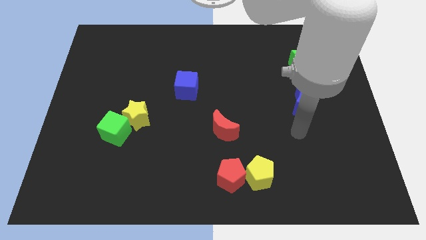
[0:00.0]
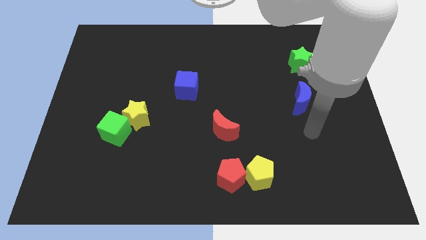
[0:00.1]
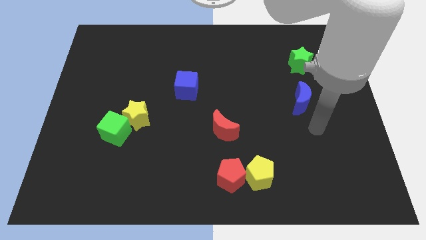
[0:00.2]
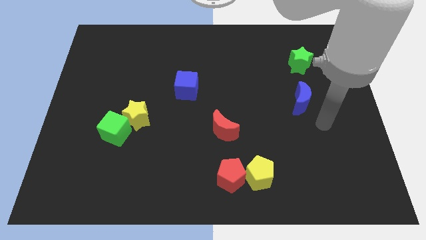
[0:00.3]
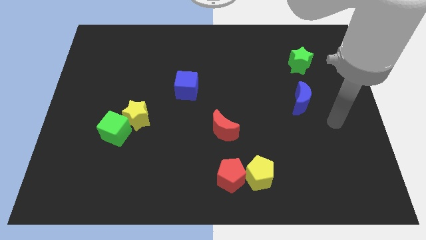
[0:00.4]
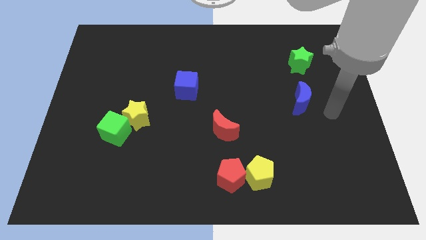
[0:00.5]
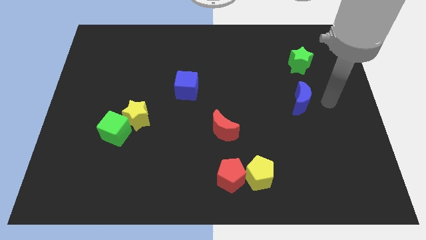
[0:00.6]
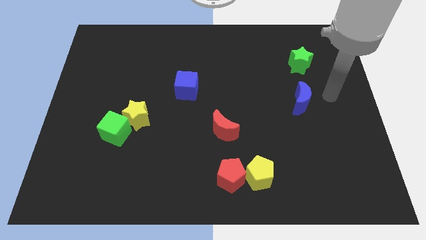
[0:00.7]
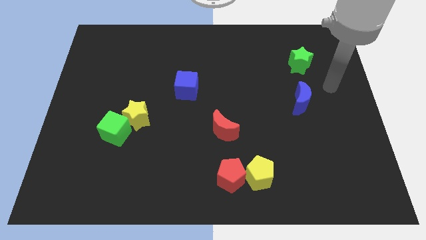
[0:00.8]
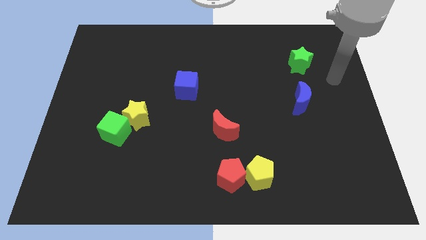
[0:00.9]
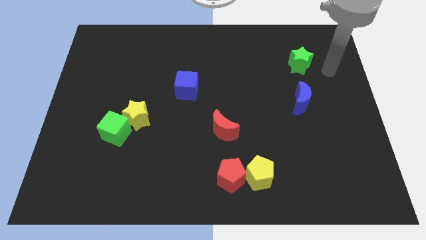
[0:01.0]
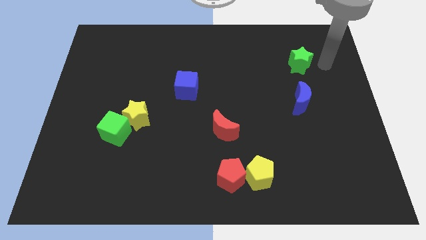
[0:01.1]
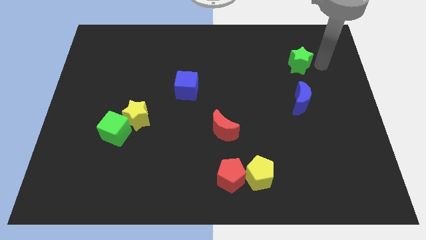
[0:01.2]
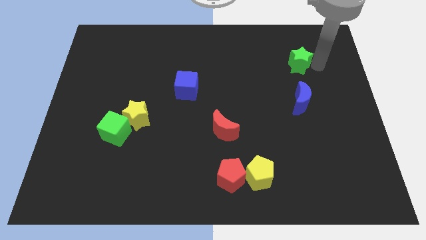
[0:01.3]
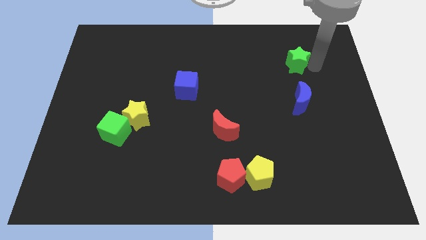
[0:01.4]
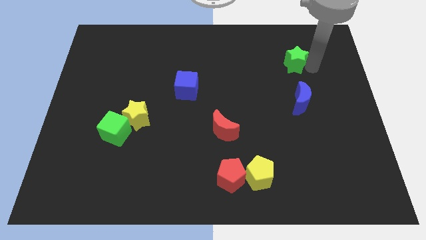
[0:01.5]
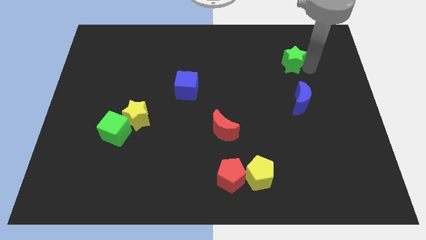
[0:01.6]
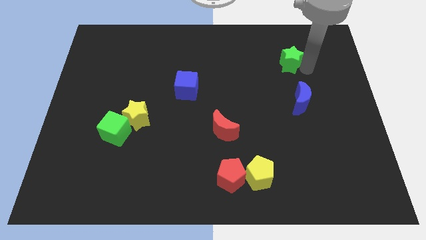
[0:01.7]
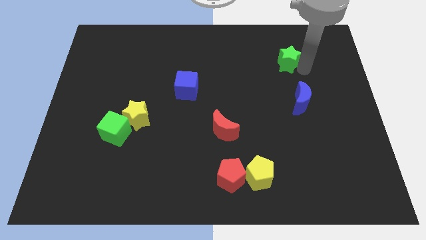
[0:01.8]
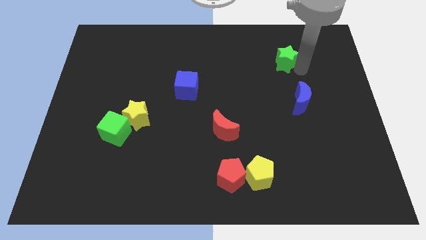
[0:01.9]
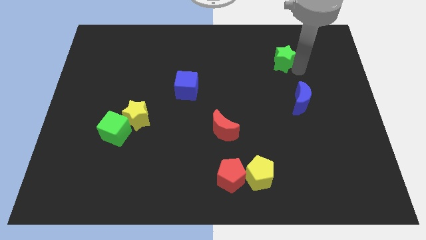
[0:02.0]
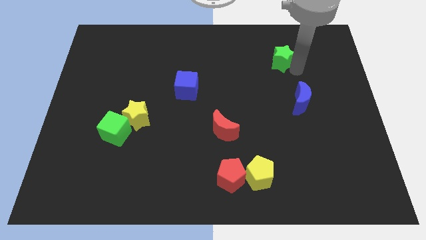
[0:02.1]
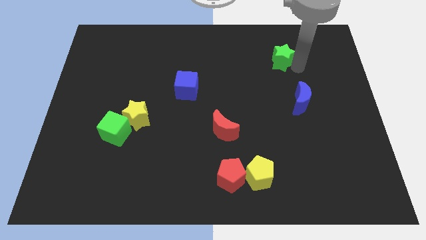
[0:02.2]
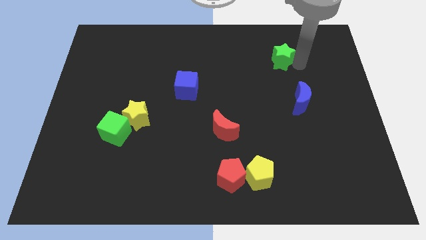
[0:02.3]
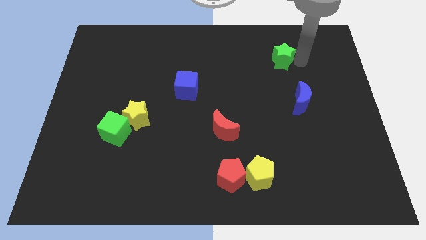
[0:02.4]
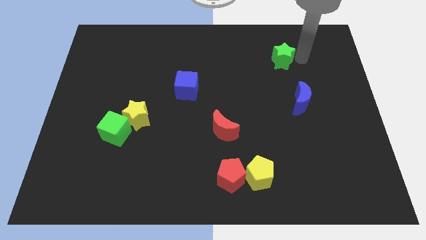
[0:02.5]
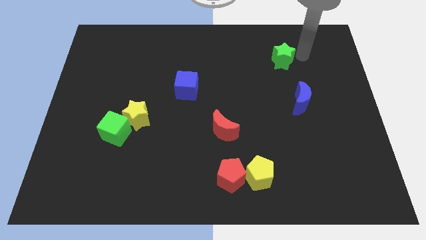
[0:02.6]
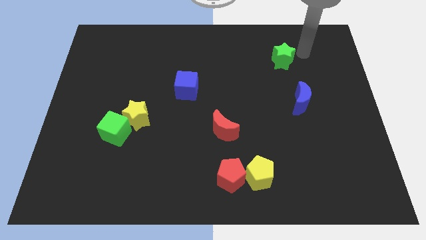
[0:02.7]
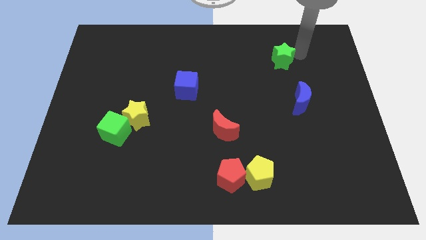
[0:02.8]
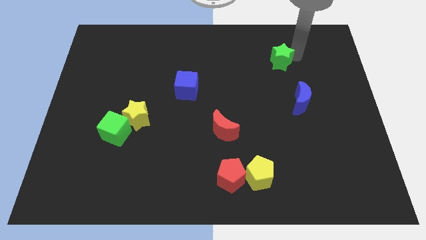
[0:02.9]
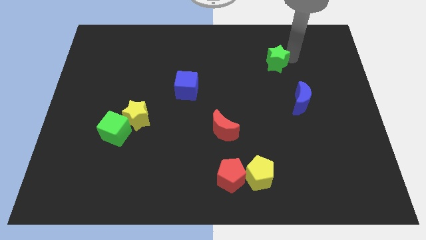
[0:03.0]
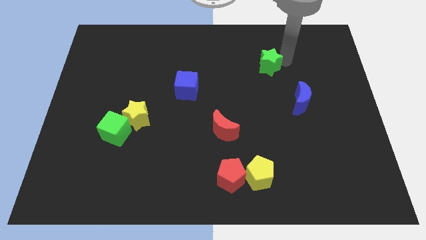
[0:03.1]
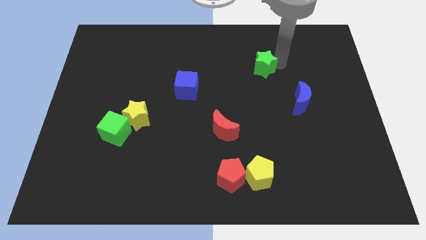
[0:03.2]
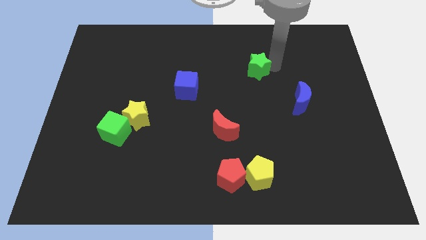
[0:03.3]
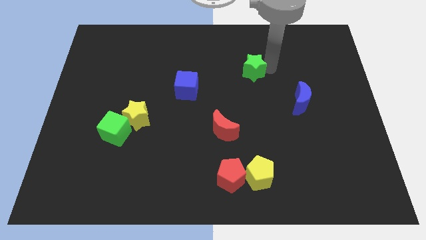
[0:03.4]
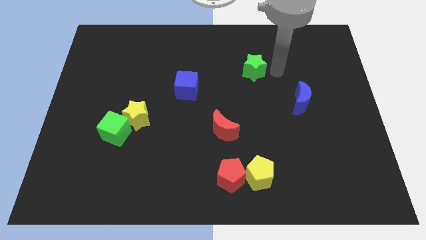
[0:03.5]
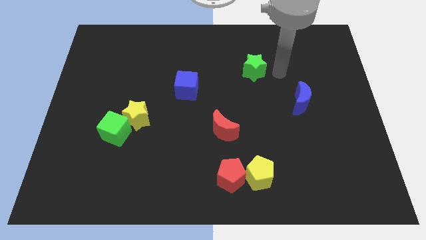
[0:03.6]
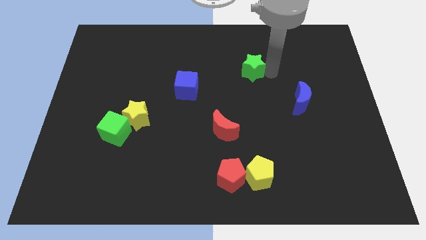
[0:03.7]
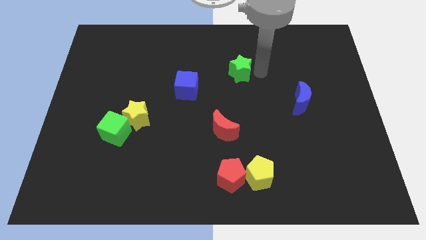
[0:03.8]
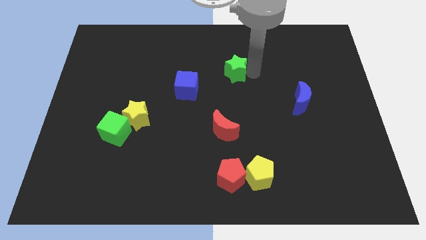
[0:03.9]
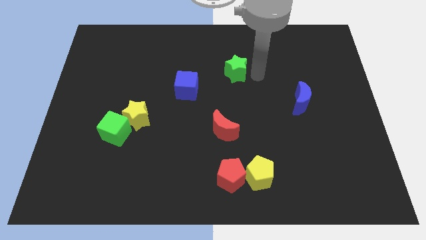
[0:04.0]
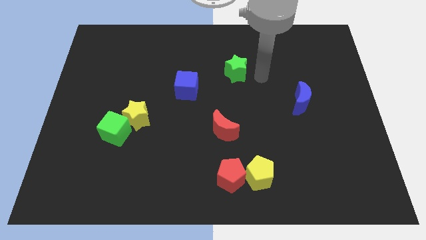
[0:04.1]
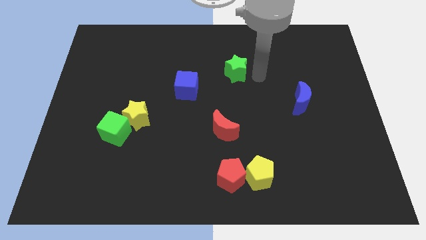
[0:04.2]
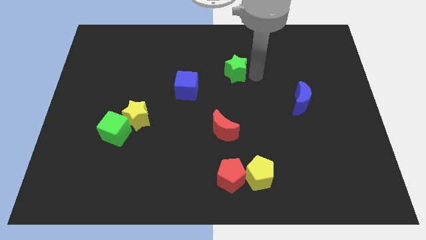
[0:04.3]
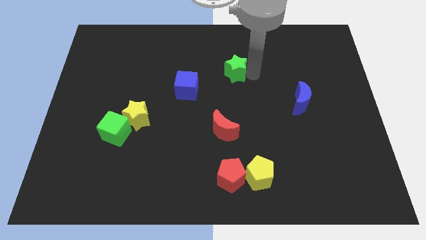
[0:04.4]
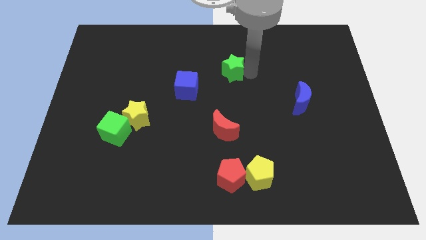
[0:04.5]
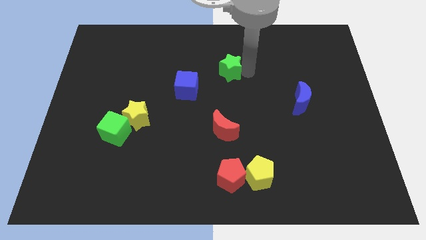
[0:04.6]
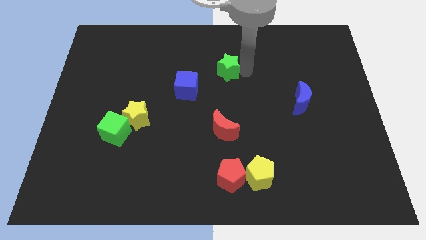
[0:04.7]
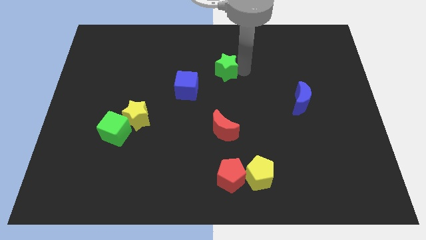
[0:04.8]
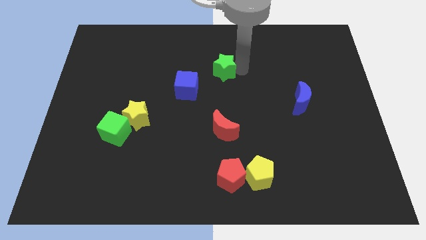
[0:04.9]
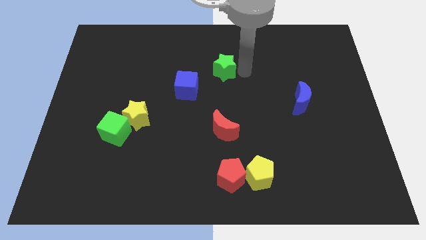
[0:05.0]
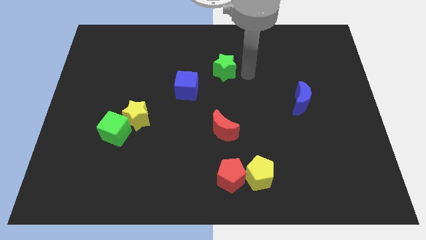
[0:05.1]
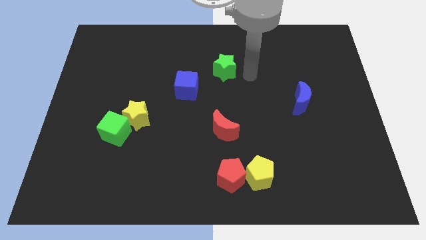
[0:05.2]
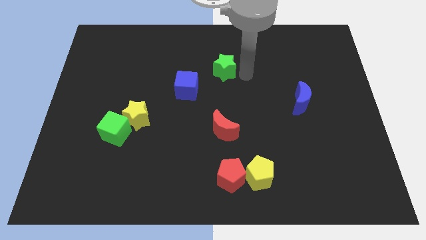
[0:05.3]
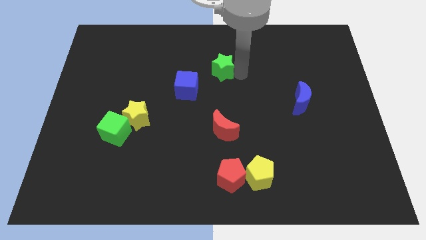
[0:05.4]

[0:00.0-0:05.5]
slide the green star left

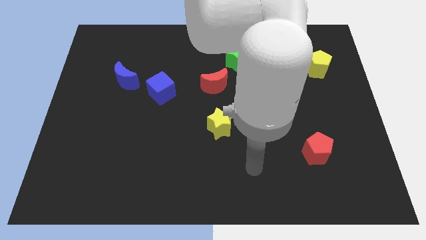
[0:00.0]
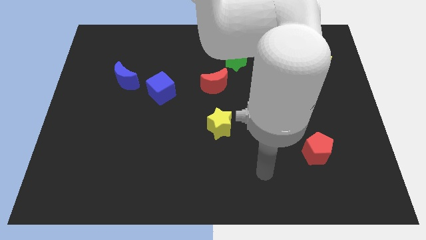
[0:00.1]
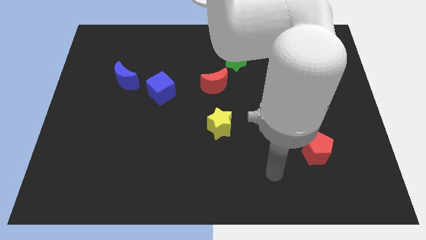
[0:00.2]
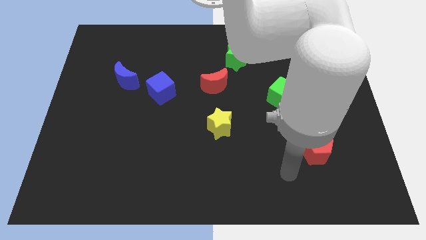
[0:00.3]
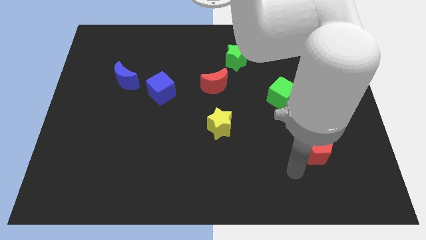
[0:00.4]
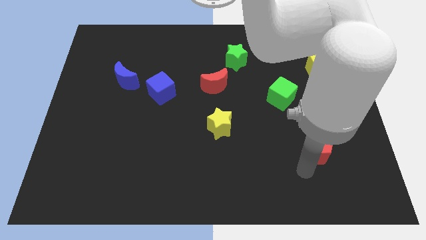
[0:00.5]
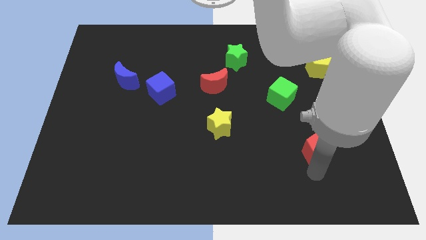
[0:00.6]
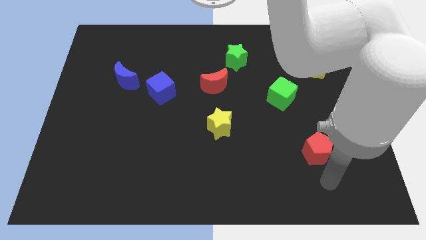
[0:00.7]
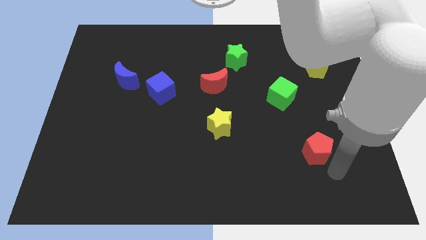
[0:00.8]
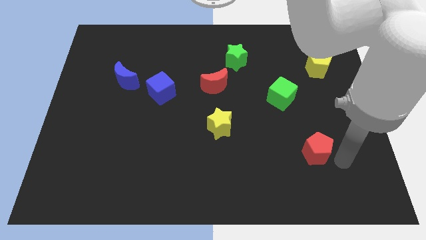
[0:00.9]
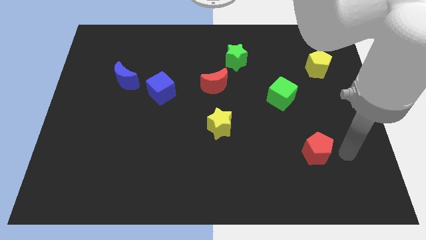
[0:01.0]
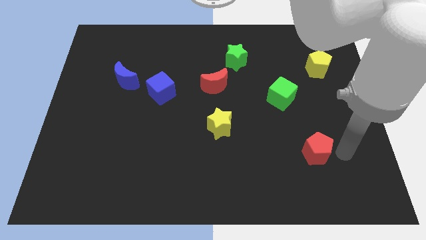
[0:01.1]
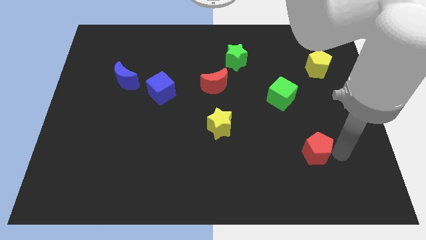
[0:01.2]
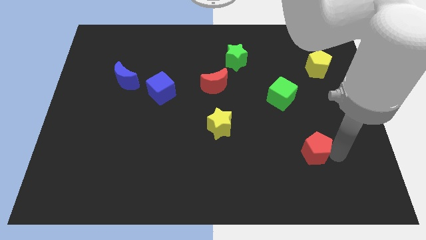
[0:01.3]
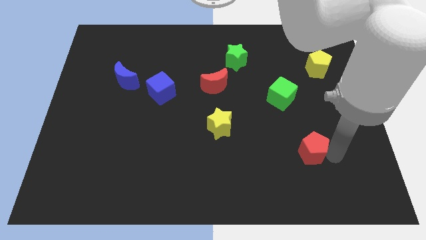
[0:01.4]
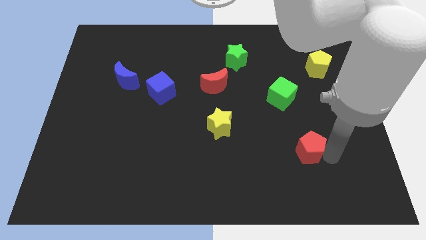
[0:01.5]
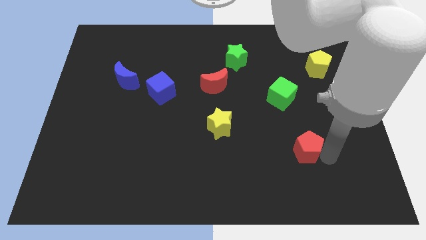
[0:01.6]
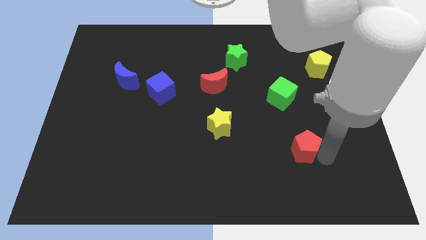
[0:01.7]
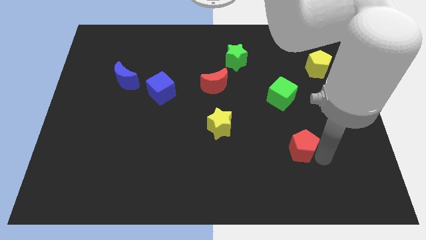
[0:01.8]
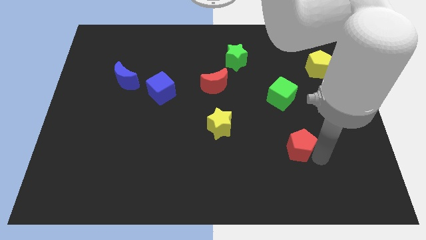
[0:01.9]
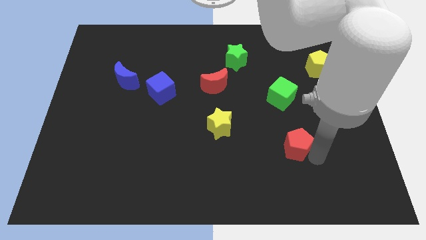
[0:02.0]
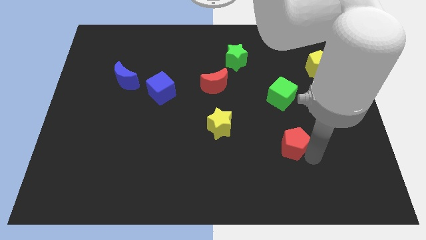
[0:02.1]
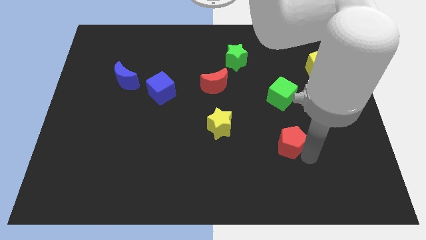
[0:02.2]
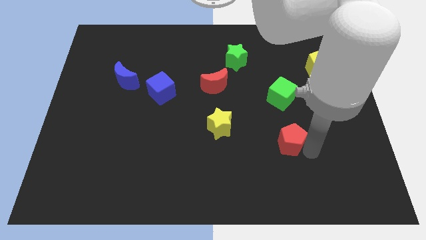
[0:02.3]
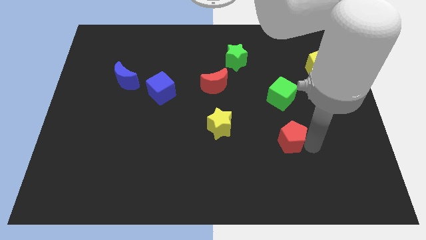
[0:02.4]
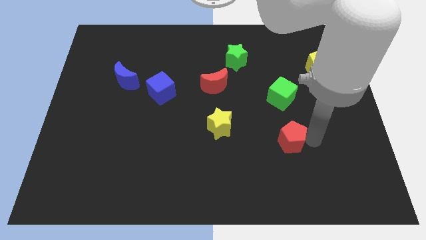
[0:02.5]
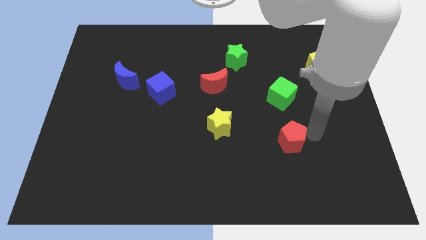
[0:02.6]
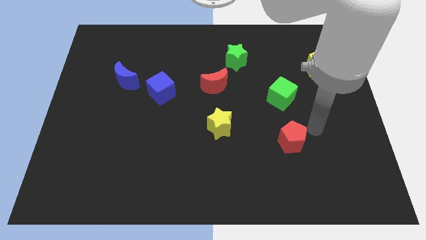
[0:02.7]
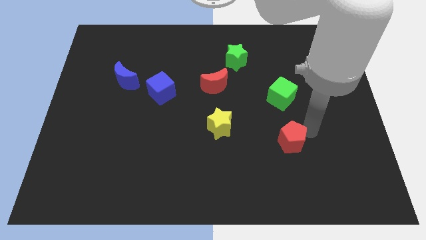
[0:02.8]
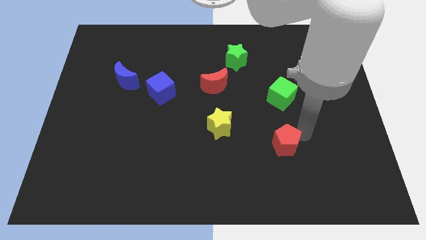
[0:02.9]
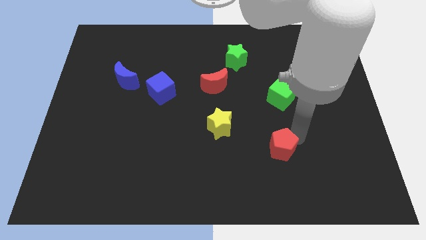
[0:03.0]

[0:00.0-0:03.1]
slightly push the red pentagon to the left
